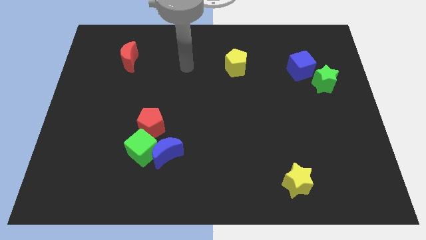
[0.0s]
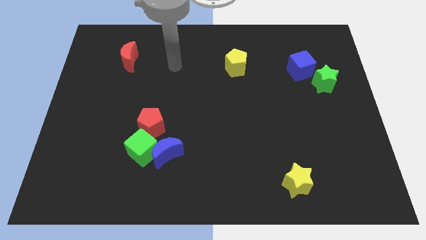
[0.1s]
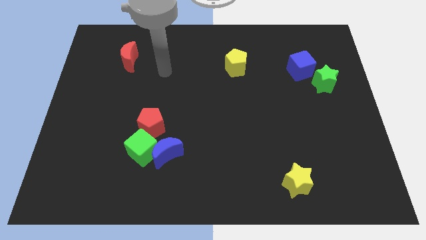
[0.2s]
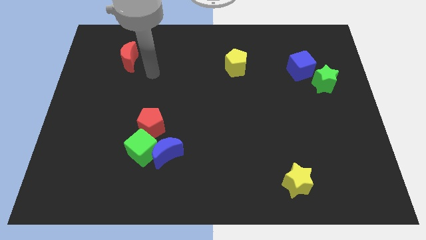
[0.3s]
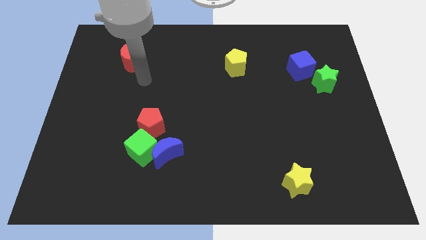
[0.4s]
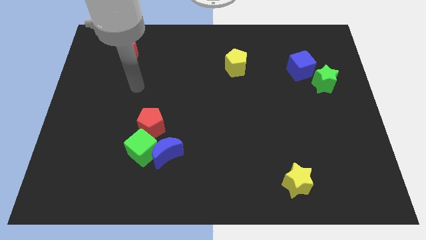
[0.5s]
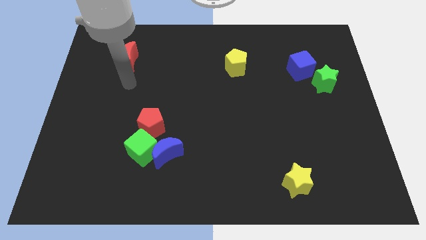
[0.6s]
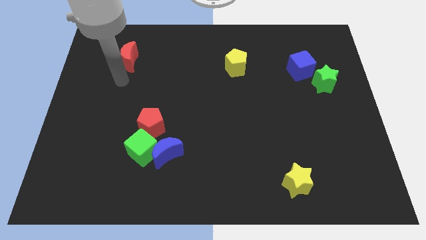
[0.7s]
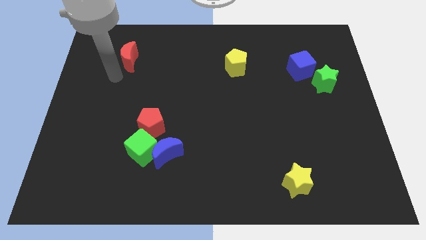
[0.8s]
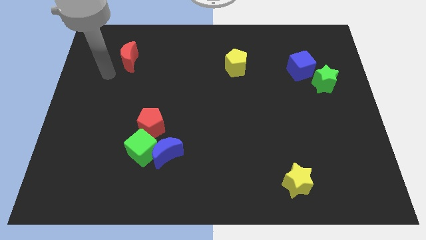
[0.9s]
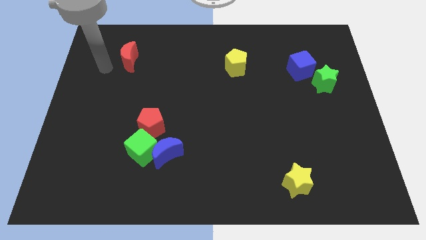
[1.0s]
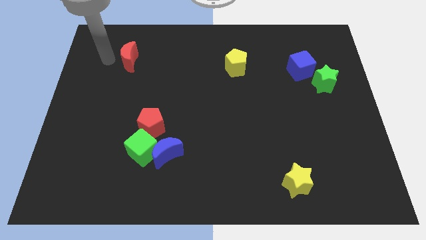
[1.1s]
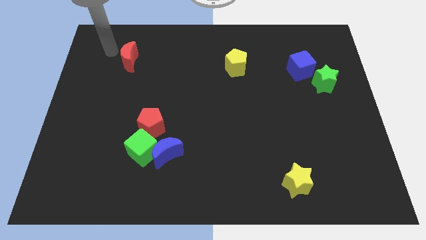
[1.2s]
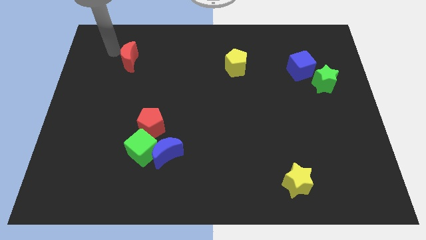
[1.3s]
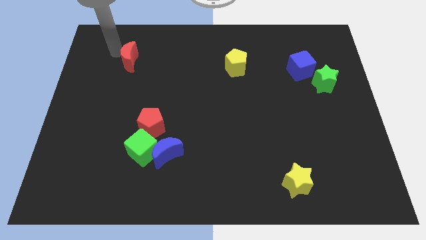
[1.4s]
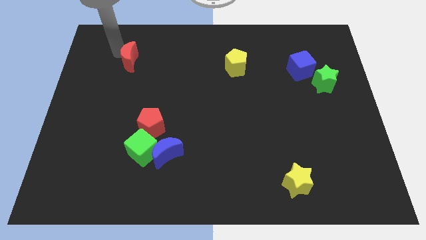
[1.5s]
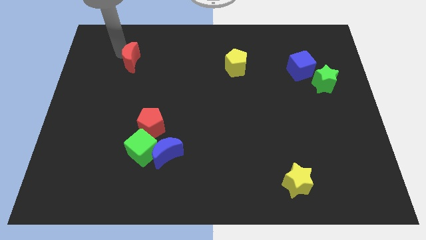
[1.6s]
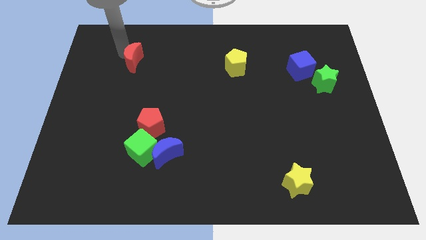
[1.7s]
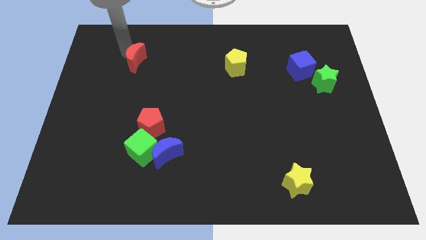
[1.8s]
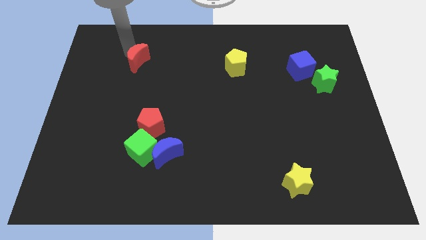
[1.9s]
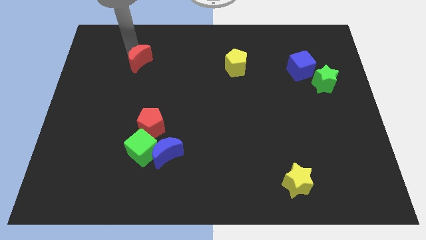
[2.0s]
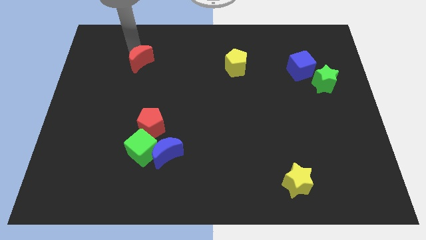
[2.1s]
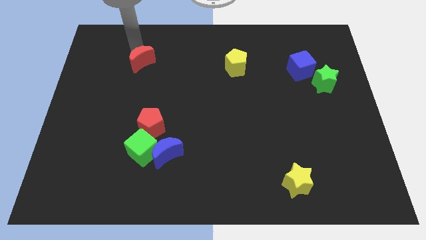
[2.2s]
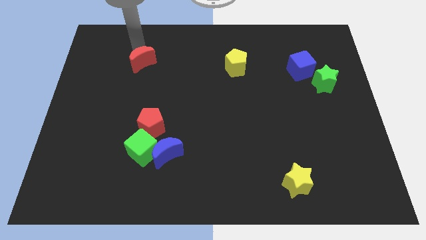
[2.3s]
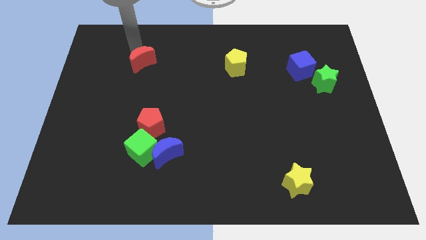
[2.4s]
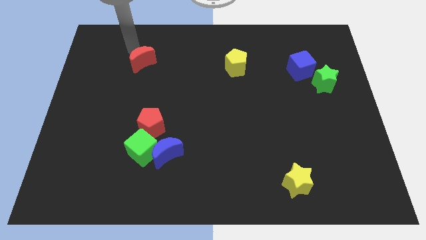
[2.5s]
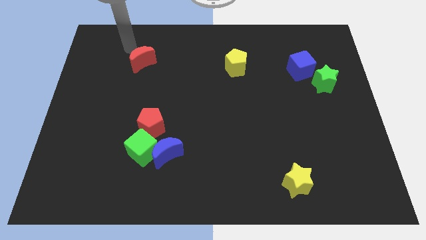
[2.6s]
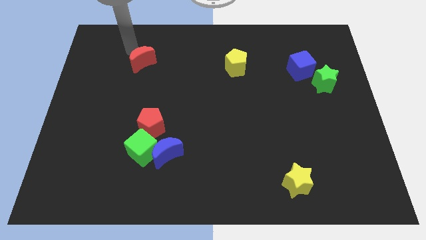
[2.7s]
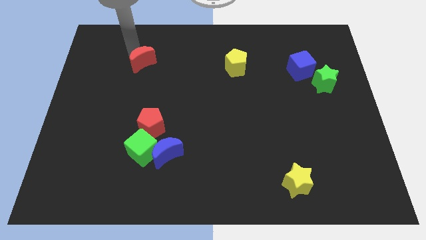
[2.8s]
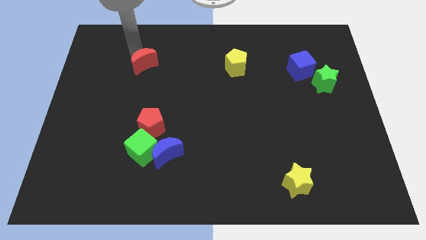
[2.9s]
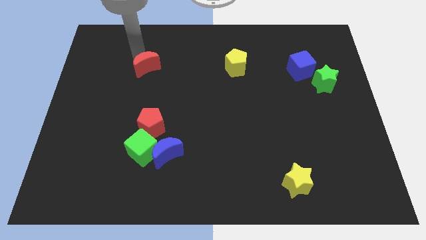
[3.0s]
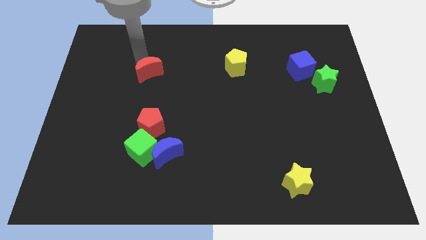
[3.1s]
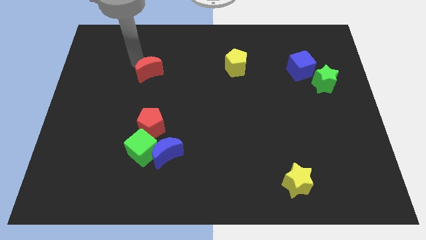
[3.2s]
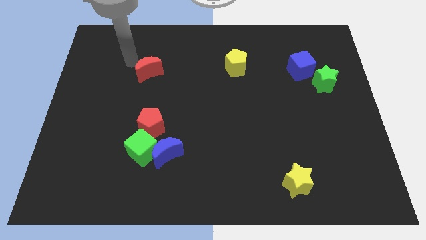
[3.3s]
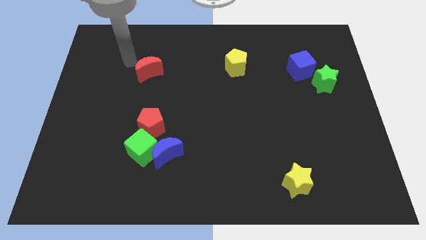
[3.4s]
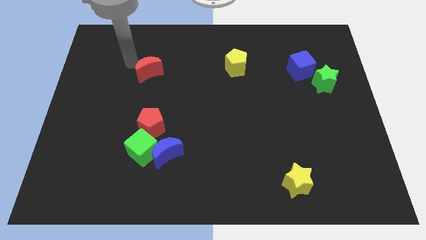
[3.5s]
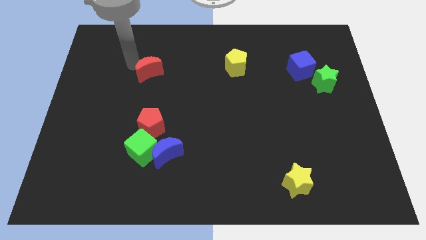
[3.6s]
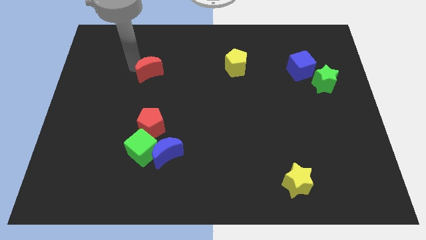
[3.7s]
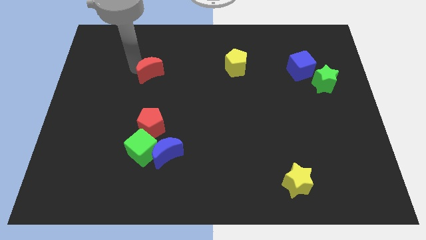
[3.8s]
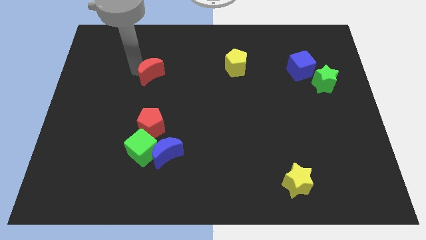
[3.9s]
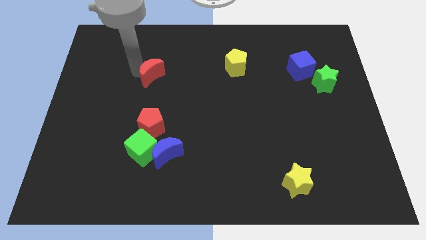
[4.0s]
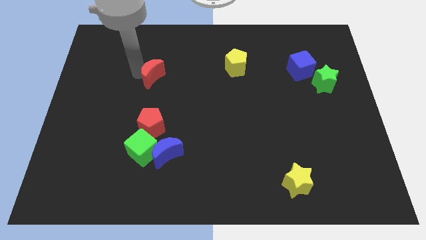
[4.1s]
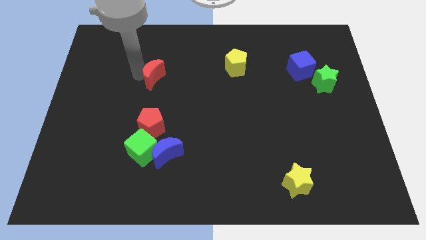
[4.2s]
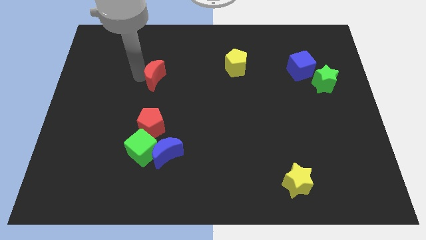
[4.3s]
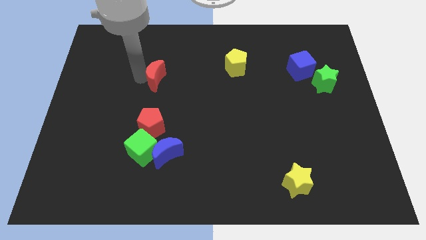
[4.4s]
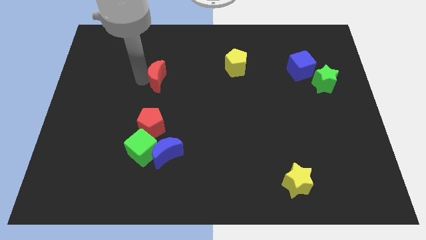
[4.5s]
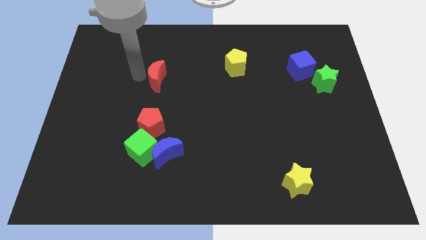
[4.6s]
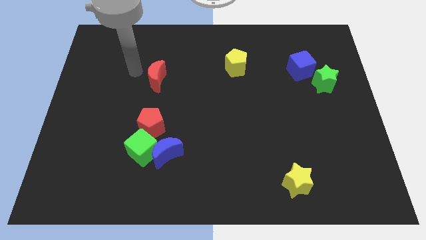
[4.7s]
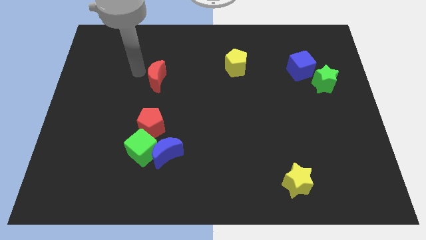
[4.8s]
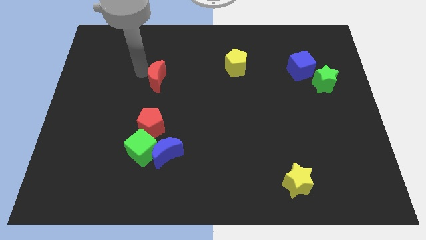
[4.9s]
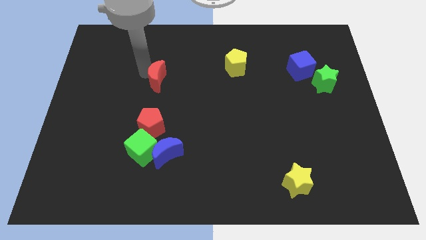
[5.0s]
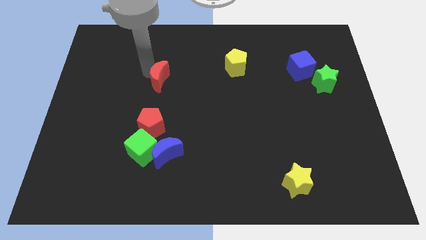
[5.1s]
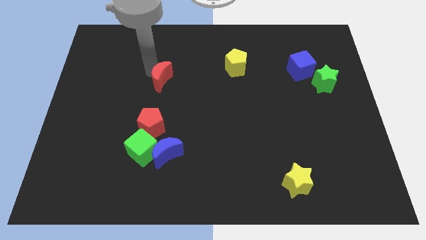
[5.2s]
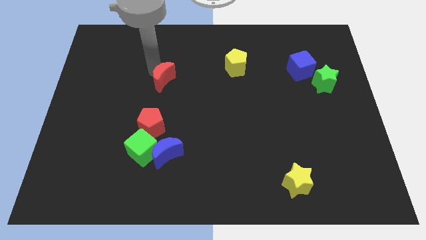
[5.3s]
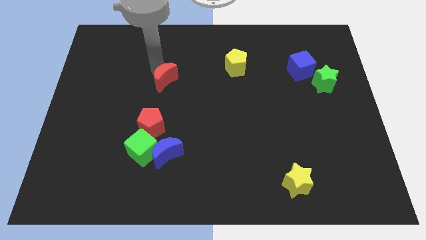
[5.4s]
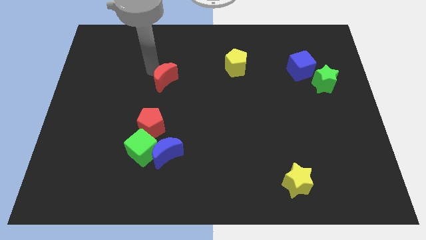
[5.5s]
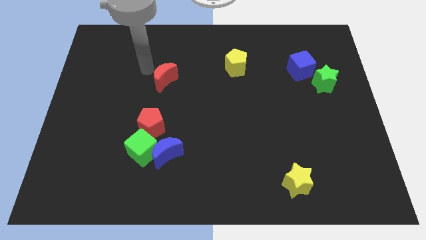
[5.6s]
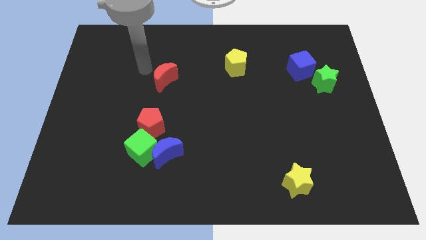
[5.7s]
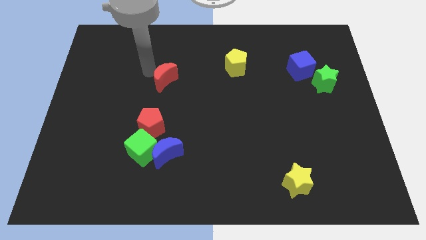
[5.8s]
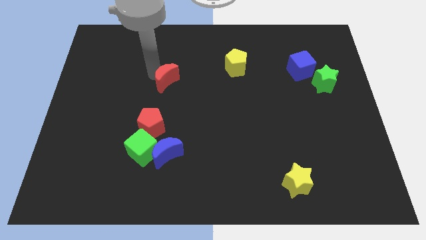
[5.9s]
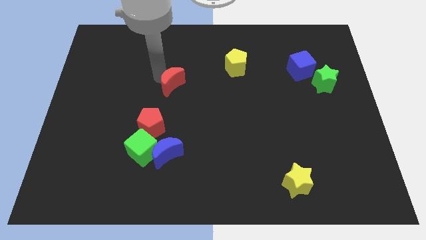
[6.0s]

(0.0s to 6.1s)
slide the red moon to the middle of the board
